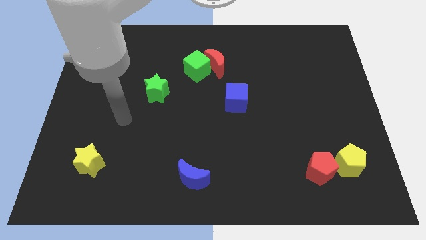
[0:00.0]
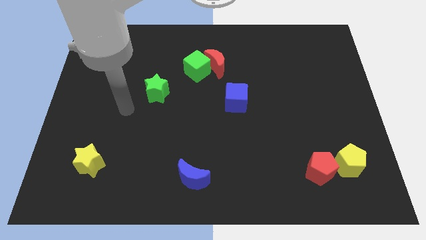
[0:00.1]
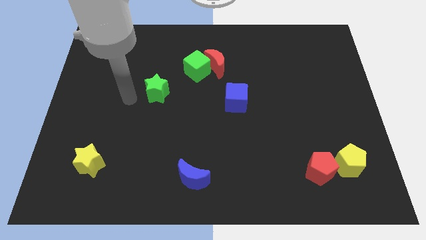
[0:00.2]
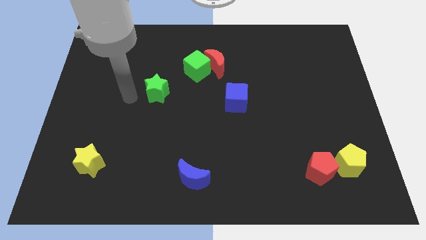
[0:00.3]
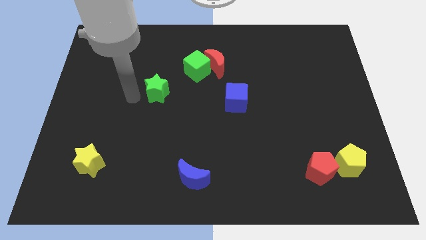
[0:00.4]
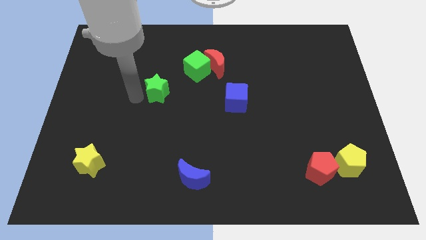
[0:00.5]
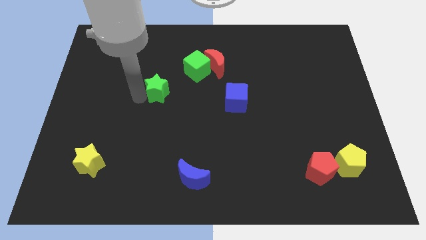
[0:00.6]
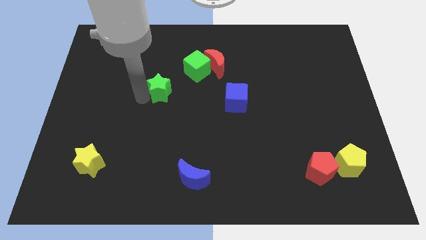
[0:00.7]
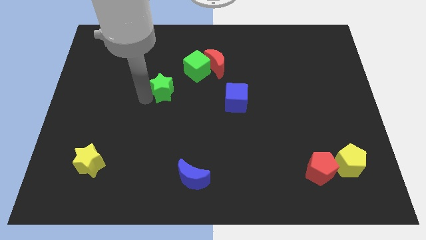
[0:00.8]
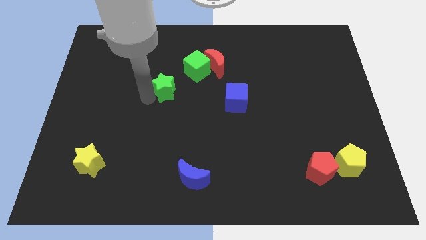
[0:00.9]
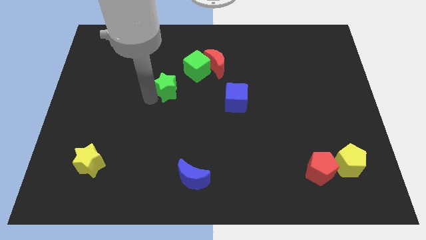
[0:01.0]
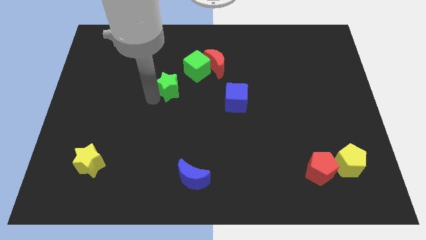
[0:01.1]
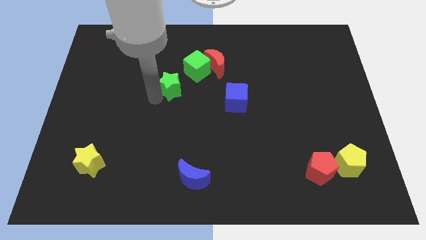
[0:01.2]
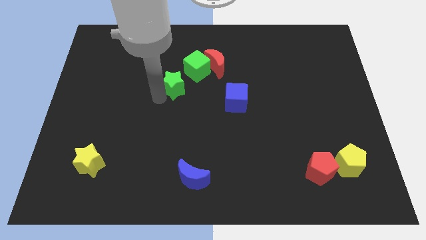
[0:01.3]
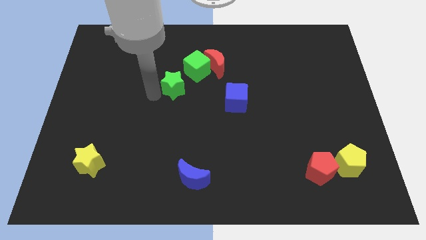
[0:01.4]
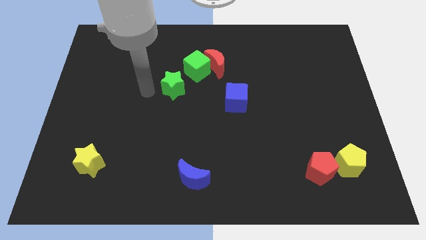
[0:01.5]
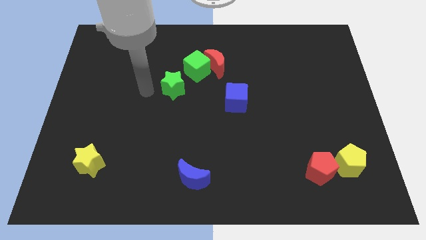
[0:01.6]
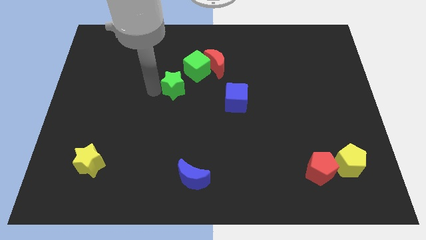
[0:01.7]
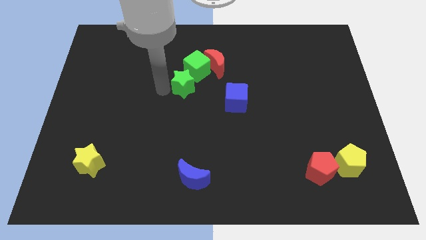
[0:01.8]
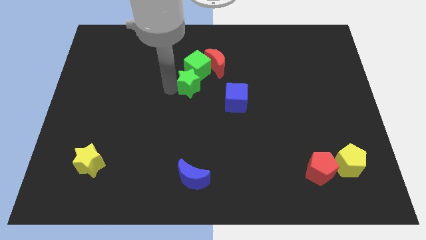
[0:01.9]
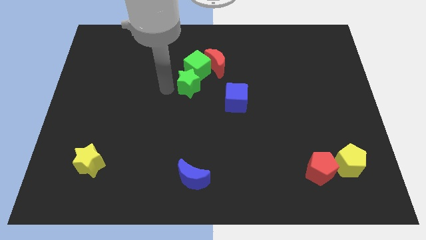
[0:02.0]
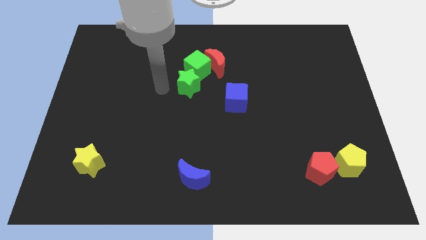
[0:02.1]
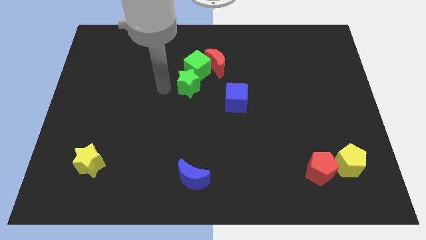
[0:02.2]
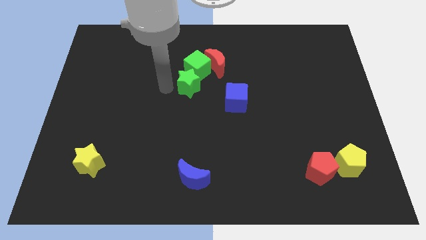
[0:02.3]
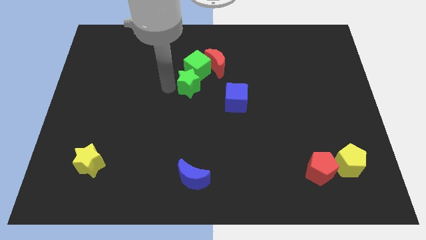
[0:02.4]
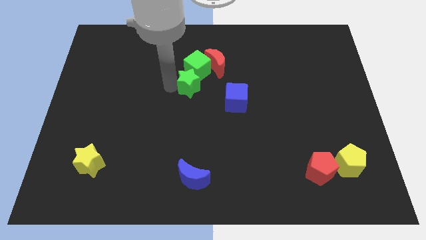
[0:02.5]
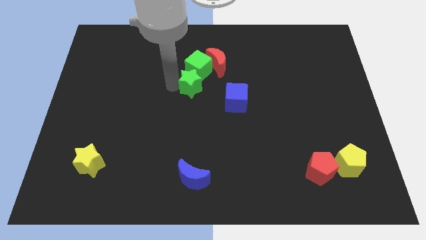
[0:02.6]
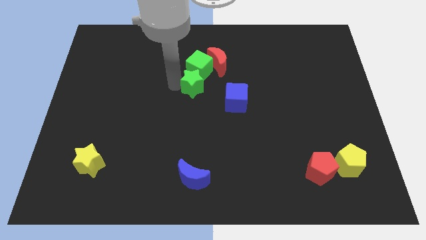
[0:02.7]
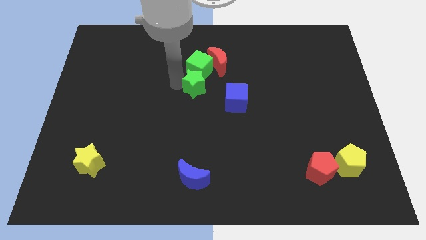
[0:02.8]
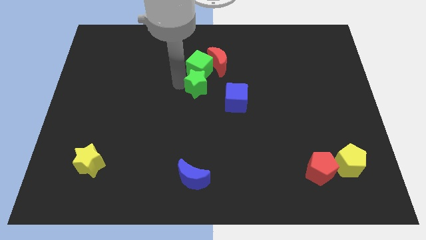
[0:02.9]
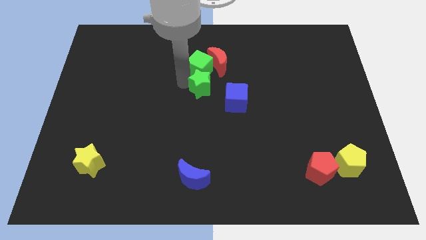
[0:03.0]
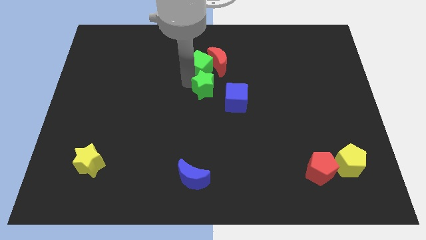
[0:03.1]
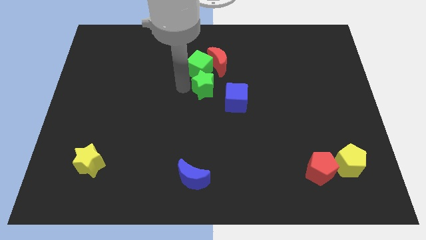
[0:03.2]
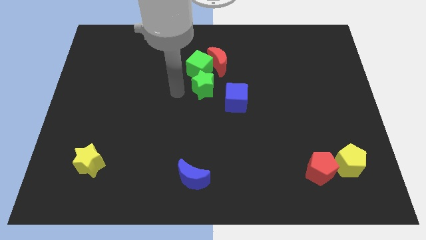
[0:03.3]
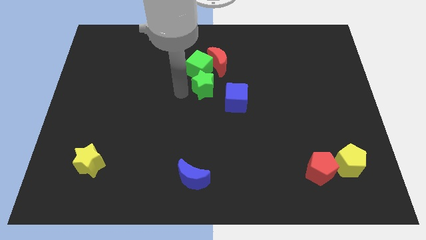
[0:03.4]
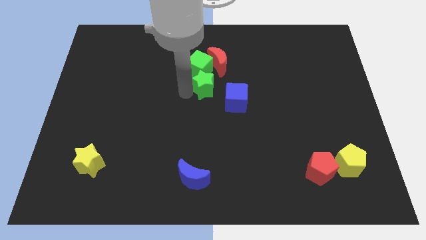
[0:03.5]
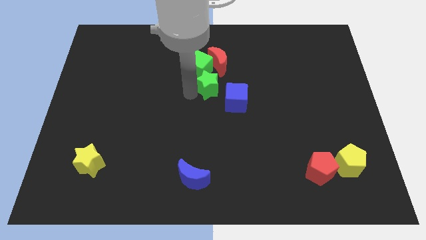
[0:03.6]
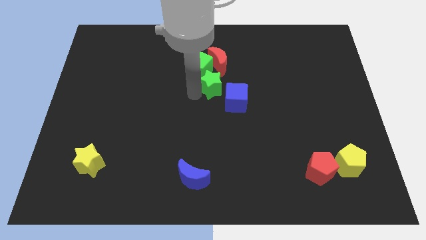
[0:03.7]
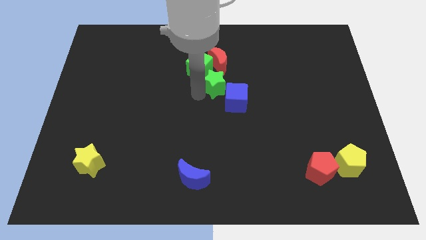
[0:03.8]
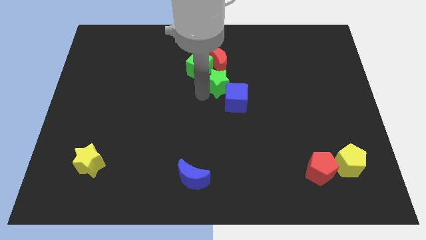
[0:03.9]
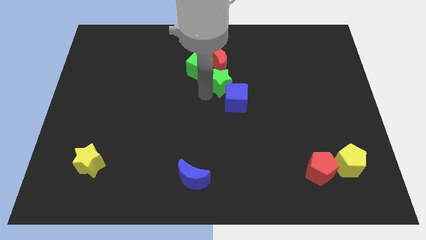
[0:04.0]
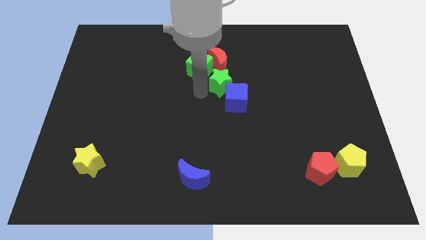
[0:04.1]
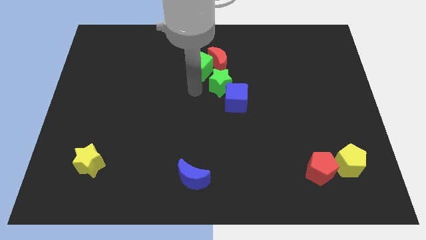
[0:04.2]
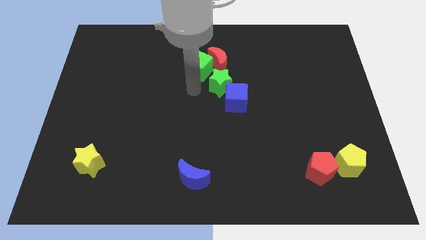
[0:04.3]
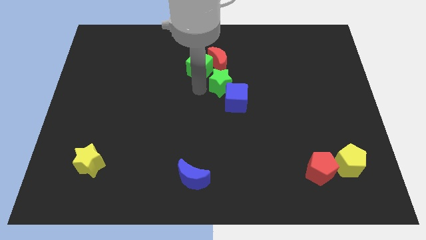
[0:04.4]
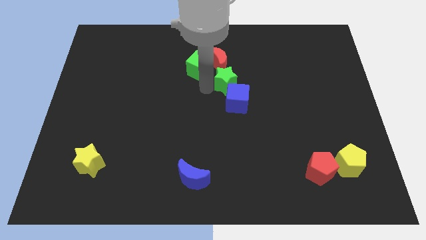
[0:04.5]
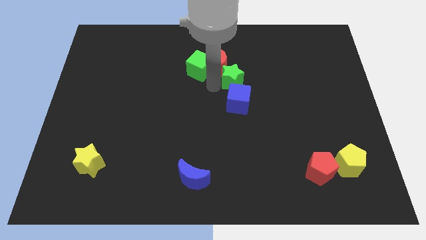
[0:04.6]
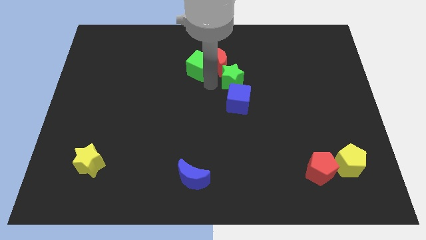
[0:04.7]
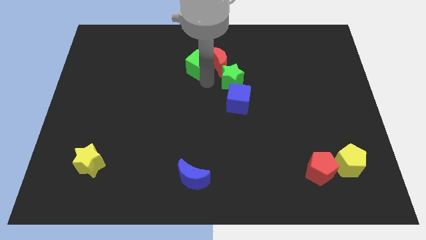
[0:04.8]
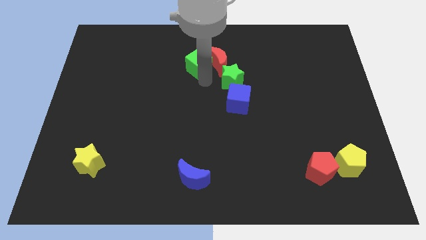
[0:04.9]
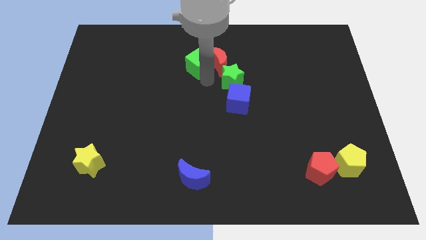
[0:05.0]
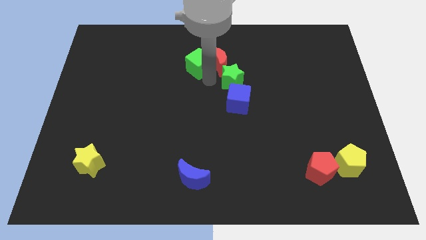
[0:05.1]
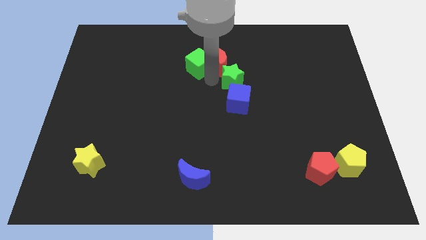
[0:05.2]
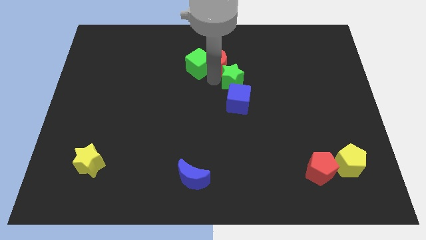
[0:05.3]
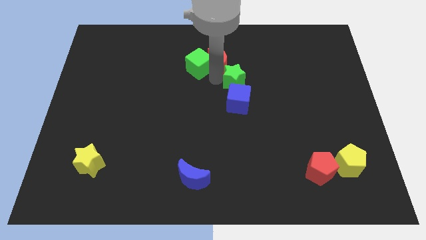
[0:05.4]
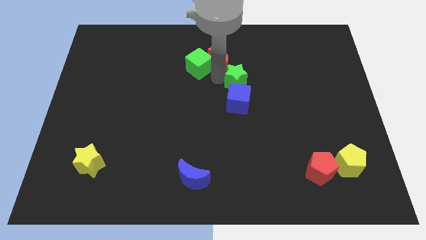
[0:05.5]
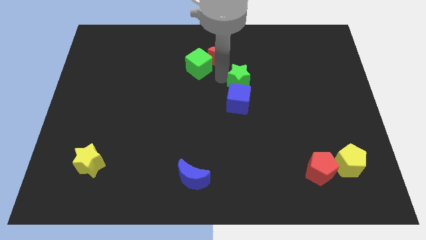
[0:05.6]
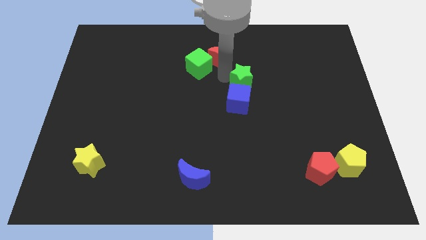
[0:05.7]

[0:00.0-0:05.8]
move the green star right

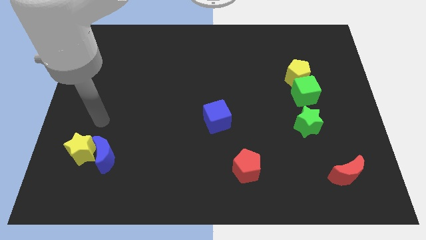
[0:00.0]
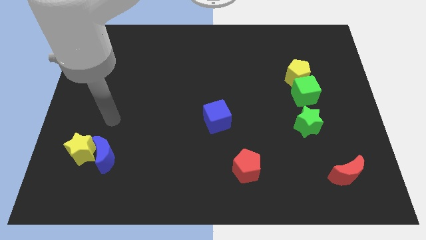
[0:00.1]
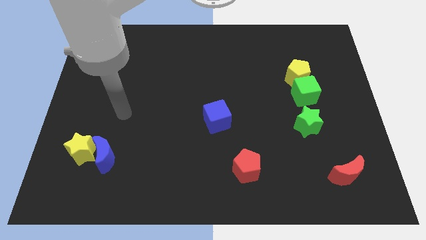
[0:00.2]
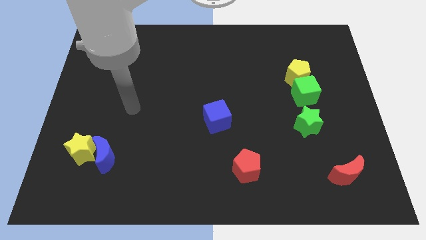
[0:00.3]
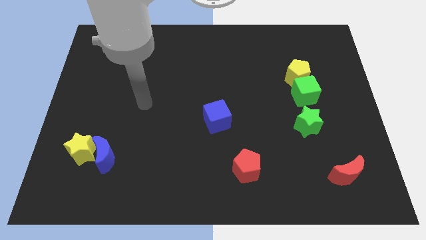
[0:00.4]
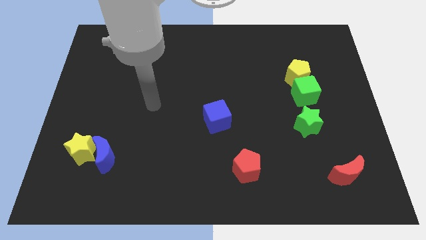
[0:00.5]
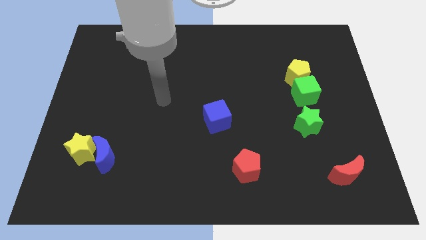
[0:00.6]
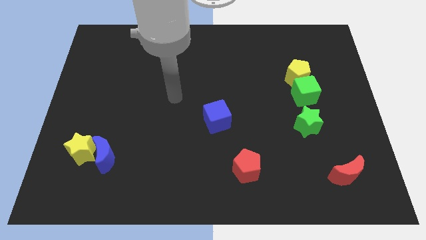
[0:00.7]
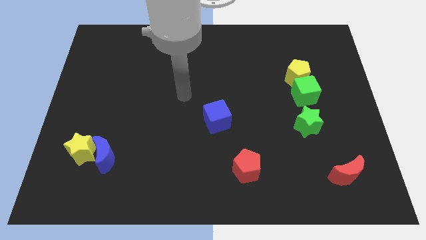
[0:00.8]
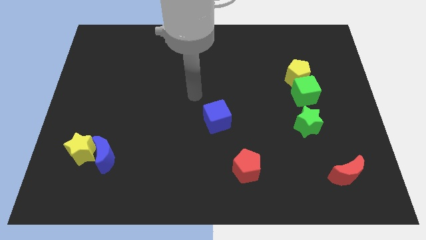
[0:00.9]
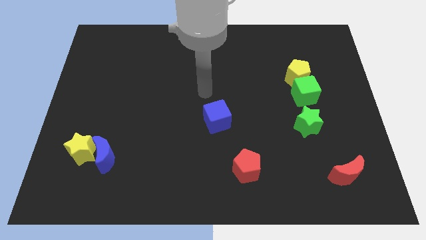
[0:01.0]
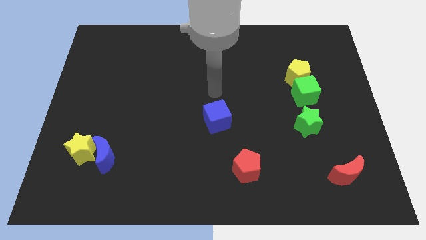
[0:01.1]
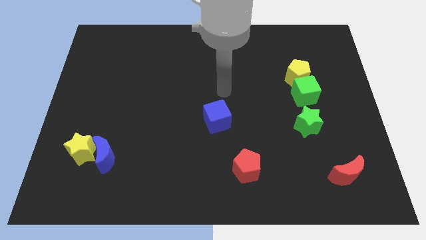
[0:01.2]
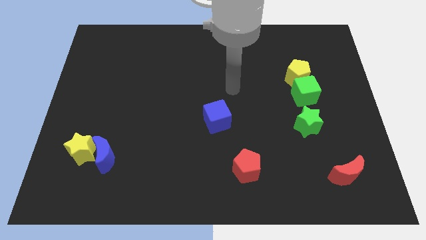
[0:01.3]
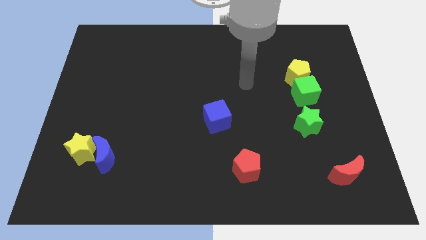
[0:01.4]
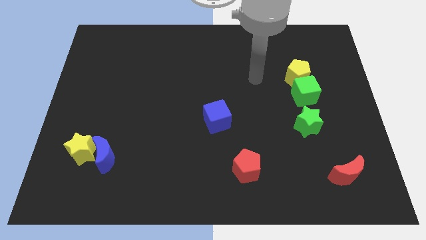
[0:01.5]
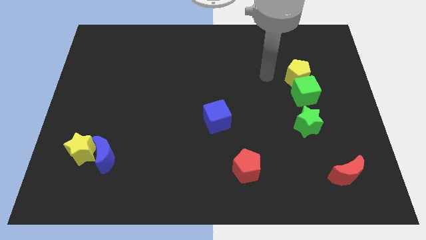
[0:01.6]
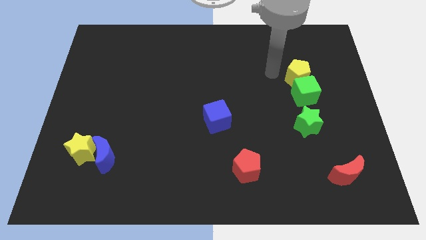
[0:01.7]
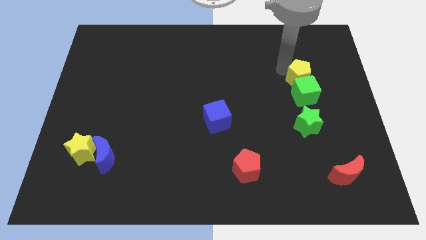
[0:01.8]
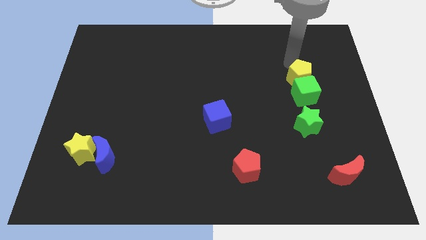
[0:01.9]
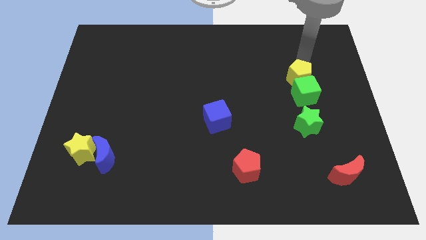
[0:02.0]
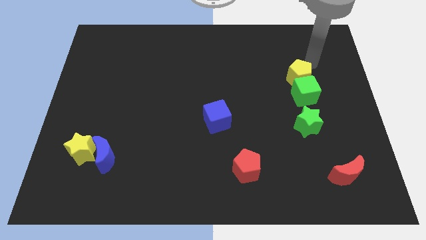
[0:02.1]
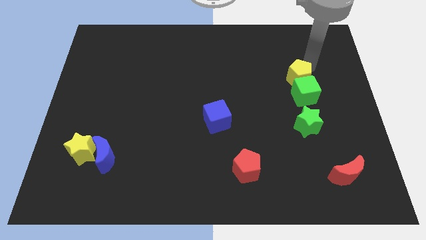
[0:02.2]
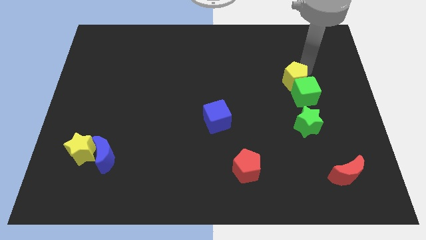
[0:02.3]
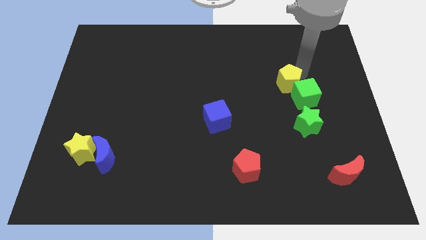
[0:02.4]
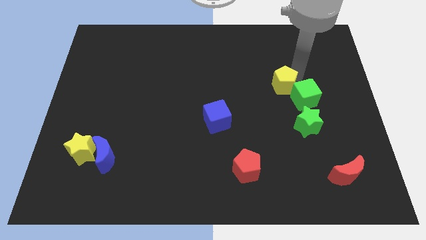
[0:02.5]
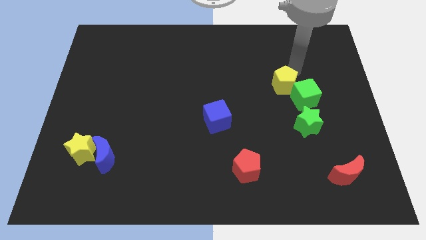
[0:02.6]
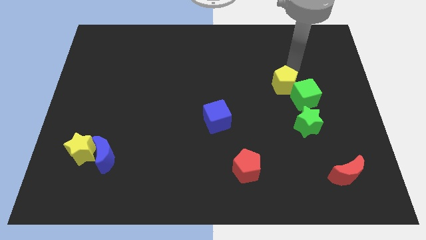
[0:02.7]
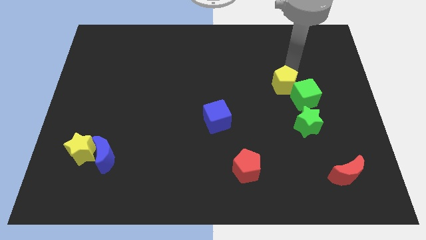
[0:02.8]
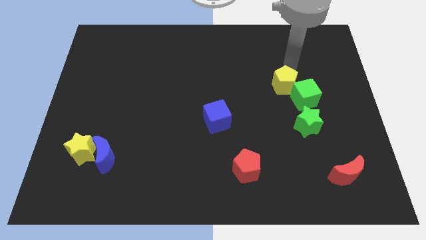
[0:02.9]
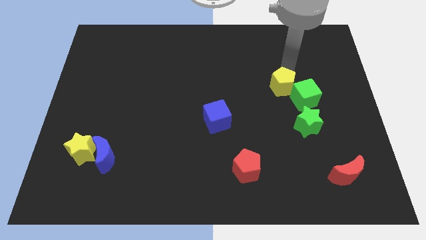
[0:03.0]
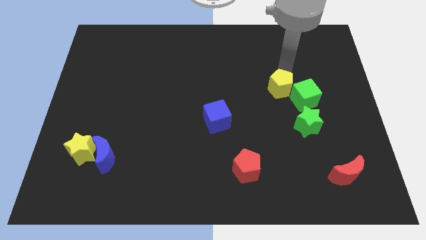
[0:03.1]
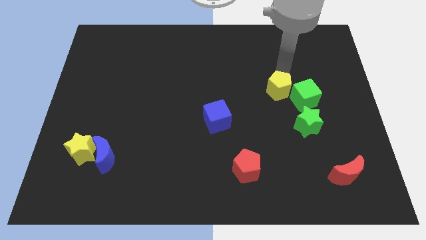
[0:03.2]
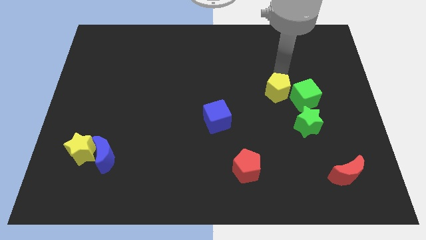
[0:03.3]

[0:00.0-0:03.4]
move the yellow pentagon down and left diagonally slightly
